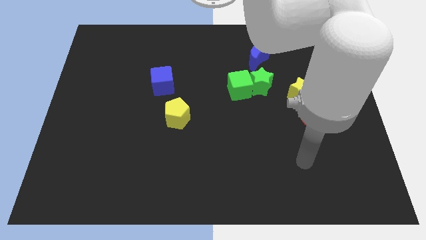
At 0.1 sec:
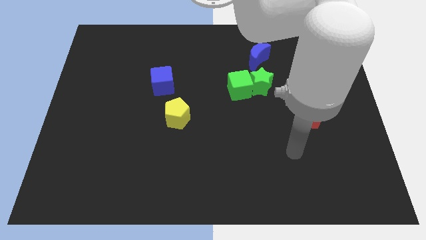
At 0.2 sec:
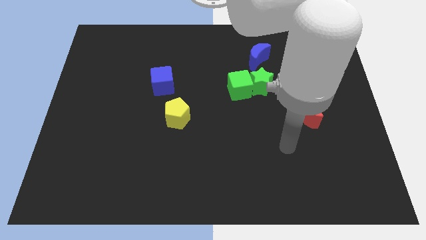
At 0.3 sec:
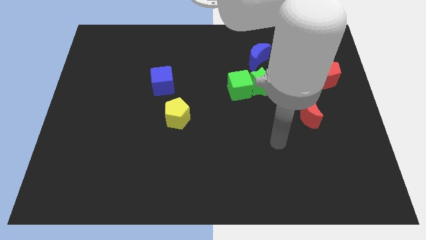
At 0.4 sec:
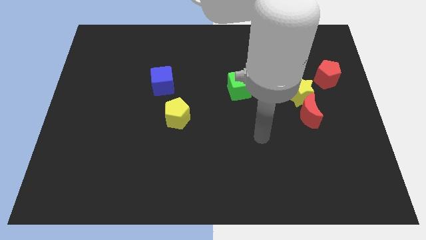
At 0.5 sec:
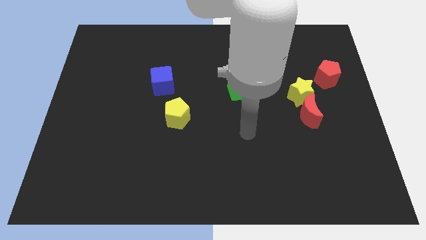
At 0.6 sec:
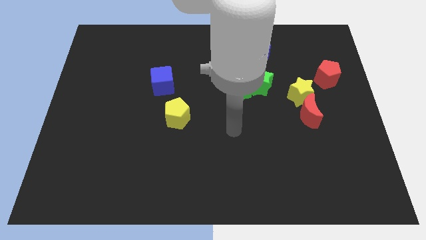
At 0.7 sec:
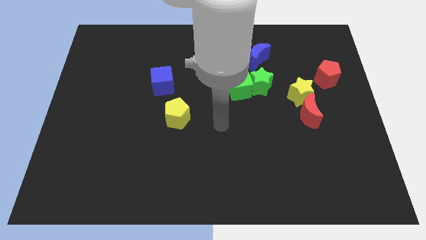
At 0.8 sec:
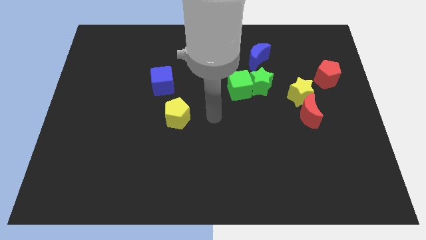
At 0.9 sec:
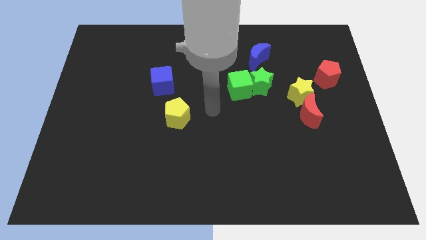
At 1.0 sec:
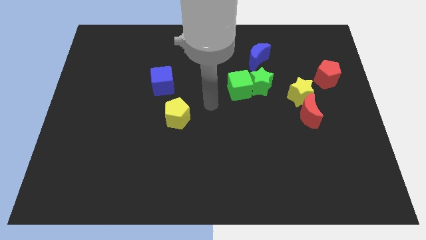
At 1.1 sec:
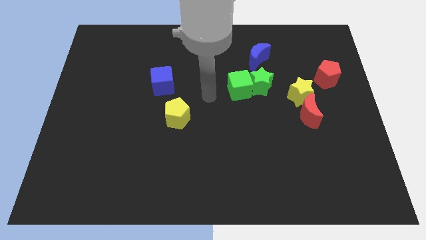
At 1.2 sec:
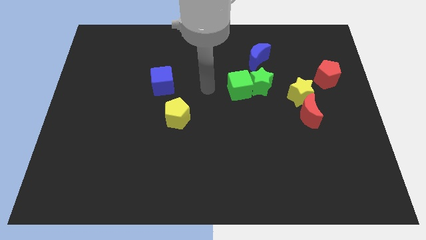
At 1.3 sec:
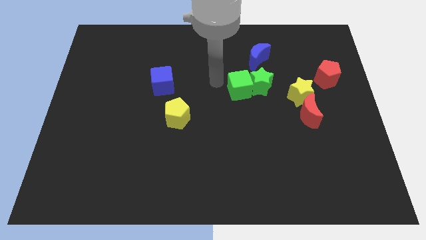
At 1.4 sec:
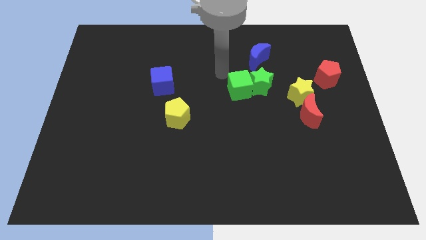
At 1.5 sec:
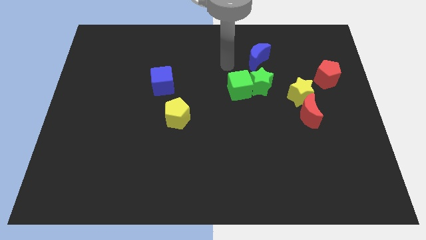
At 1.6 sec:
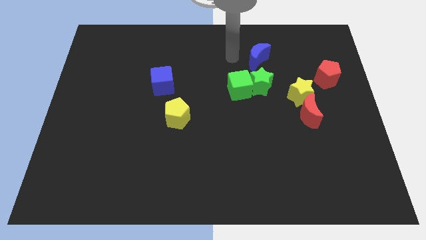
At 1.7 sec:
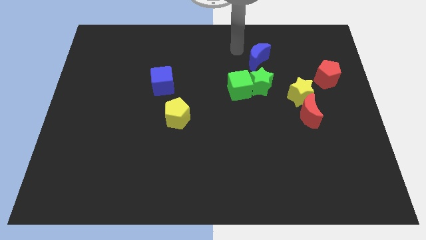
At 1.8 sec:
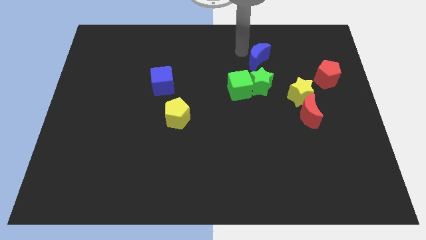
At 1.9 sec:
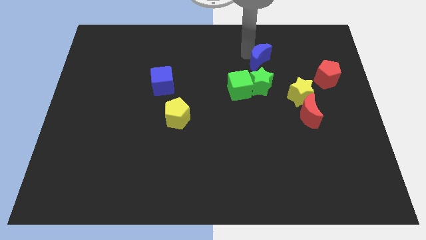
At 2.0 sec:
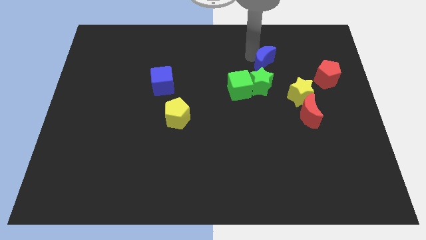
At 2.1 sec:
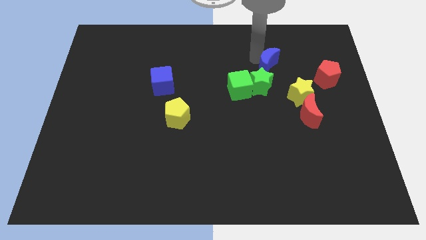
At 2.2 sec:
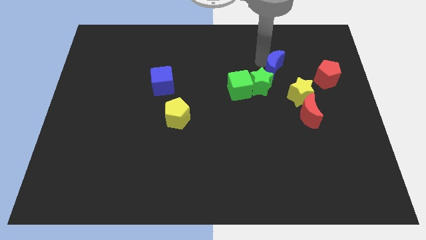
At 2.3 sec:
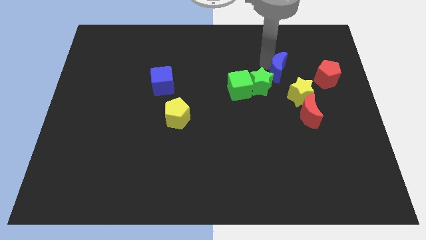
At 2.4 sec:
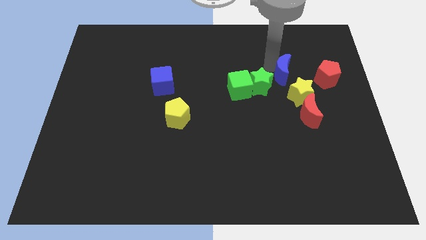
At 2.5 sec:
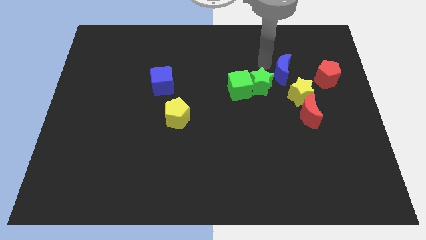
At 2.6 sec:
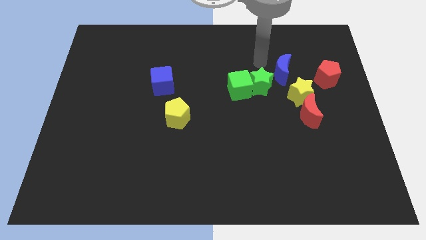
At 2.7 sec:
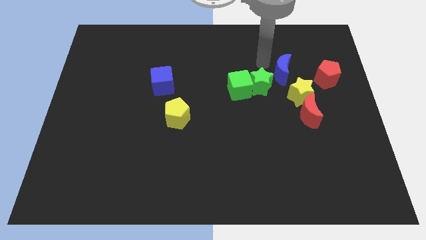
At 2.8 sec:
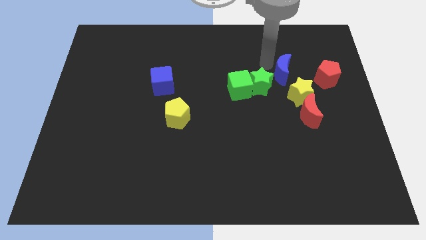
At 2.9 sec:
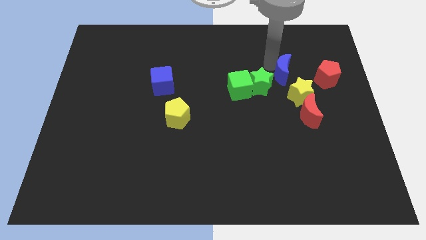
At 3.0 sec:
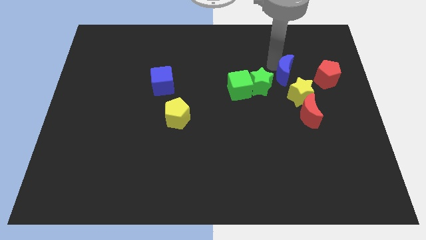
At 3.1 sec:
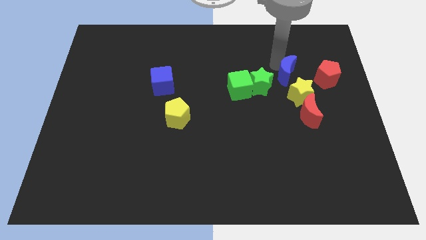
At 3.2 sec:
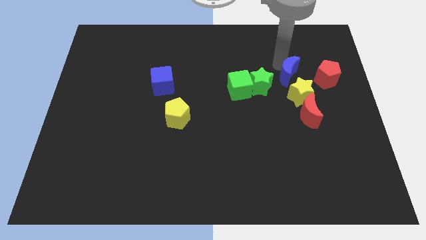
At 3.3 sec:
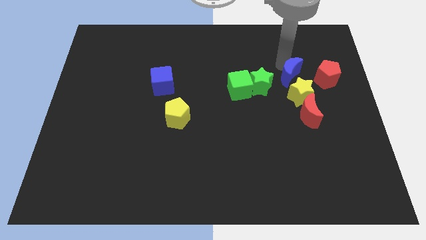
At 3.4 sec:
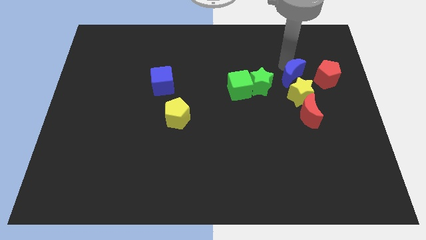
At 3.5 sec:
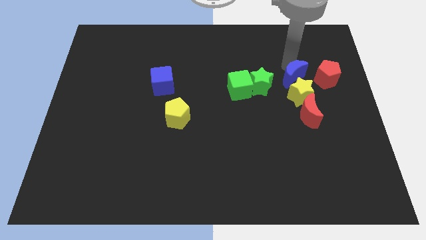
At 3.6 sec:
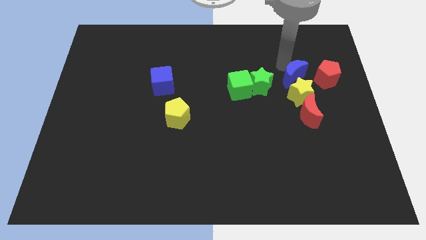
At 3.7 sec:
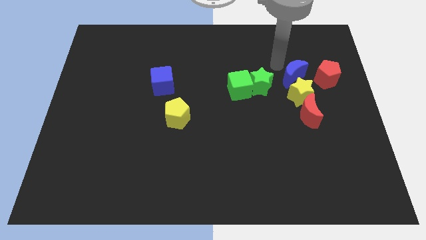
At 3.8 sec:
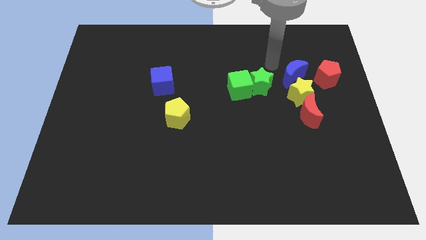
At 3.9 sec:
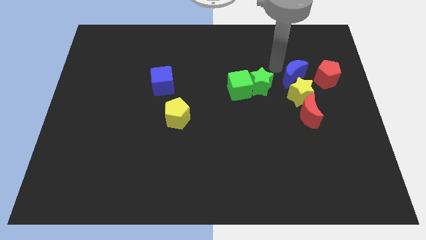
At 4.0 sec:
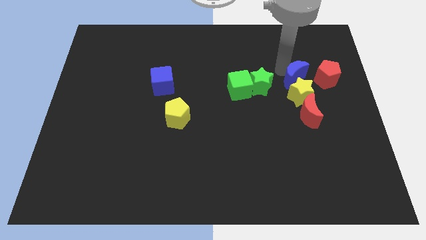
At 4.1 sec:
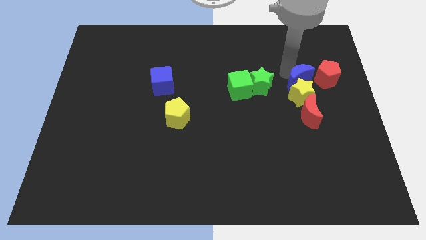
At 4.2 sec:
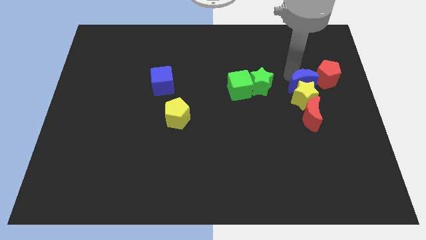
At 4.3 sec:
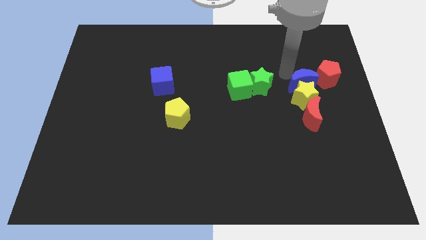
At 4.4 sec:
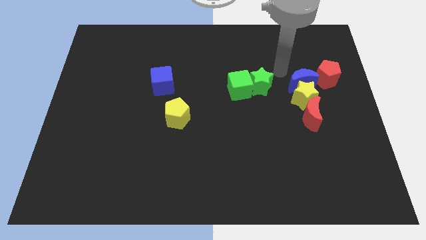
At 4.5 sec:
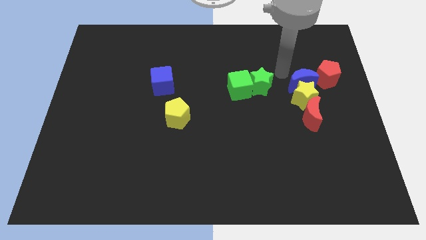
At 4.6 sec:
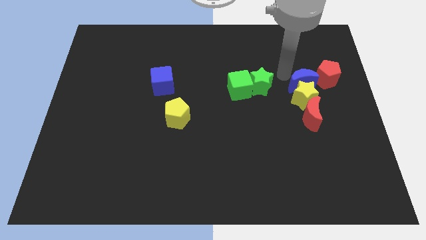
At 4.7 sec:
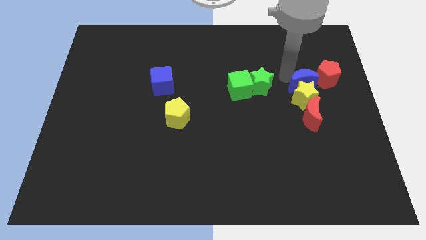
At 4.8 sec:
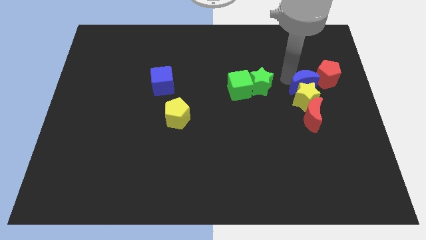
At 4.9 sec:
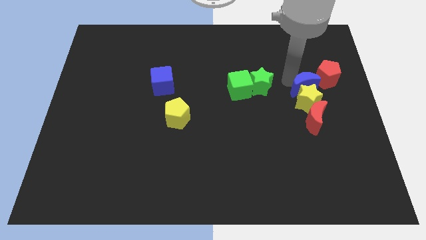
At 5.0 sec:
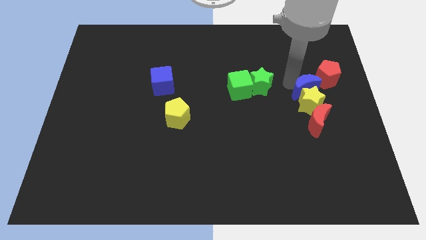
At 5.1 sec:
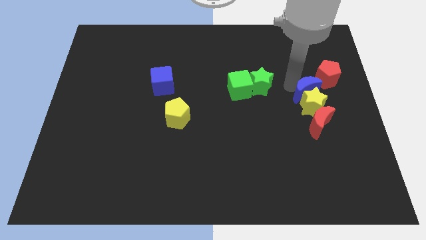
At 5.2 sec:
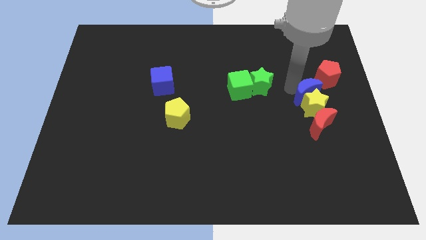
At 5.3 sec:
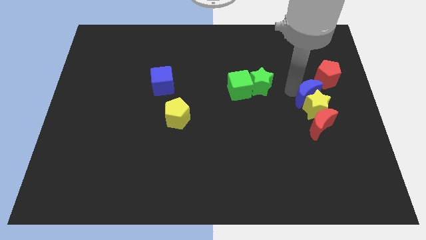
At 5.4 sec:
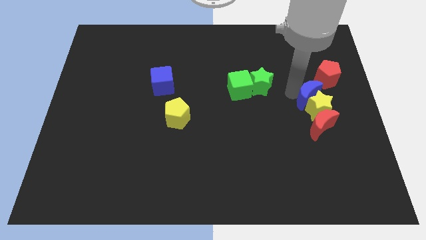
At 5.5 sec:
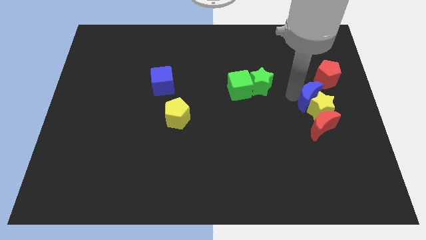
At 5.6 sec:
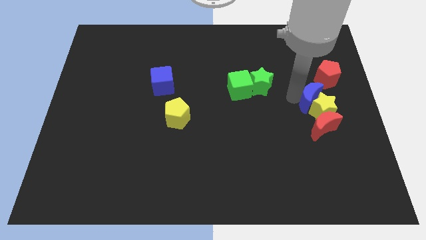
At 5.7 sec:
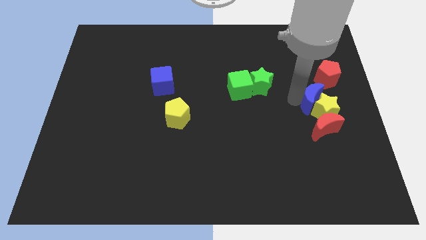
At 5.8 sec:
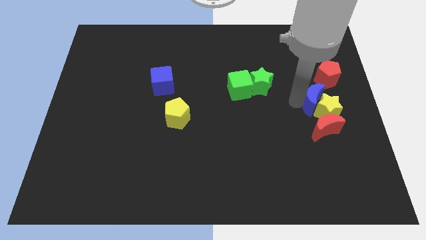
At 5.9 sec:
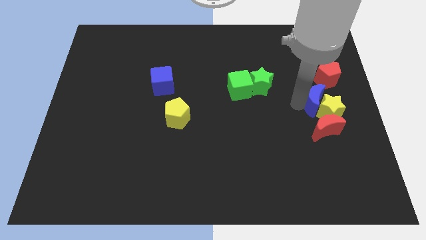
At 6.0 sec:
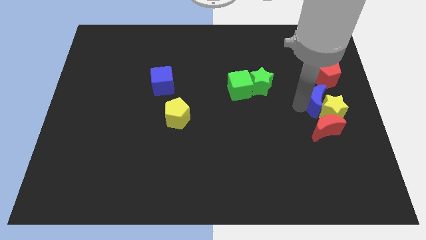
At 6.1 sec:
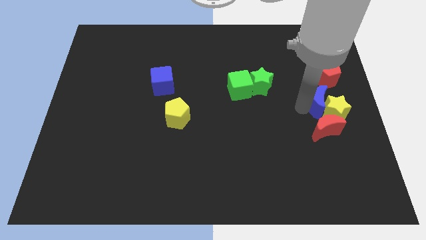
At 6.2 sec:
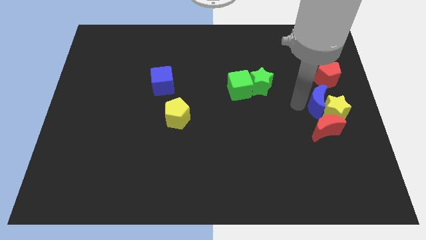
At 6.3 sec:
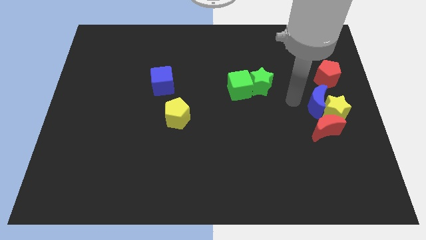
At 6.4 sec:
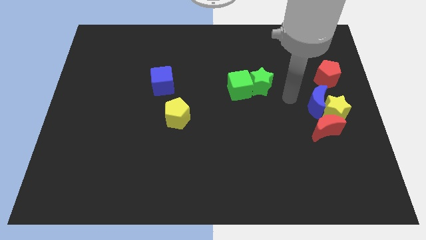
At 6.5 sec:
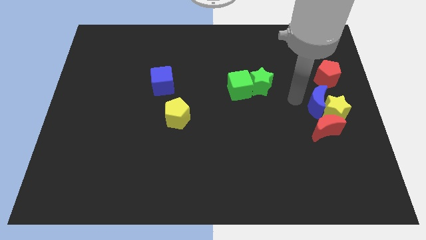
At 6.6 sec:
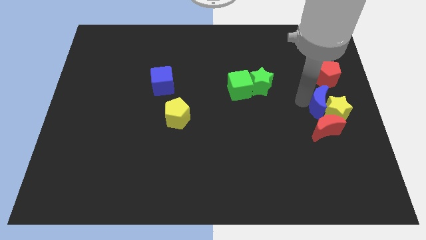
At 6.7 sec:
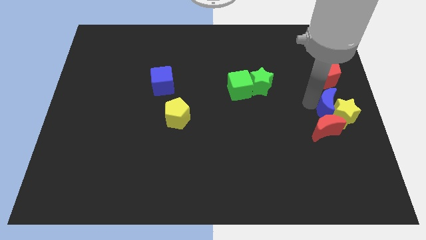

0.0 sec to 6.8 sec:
push the blue moon to the top right side of the red moon

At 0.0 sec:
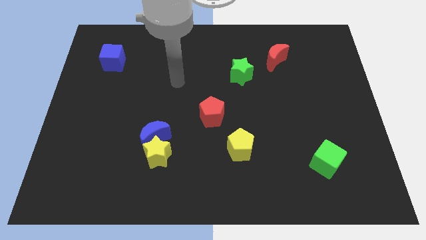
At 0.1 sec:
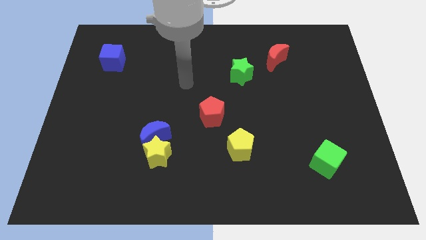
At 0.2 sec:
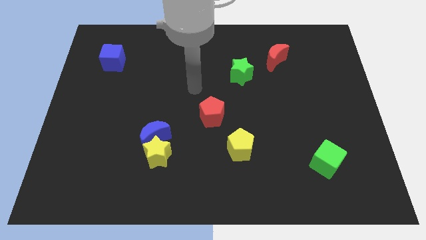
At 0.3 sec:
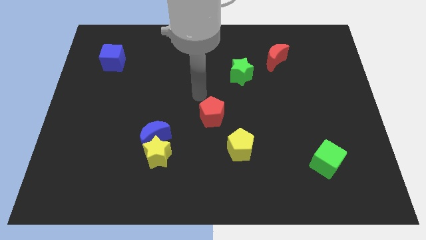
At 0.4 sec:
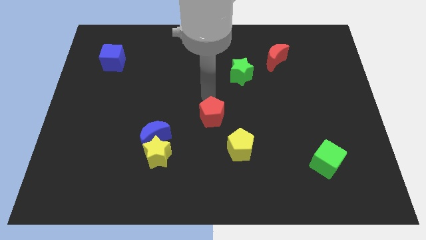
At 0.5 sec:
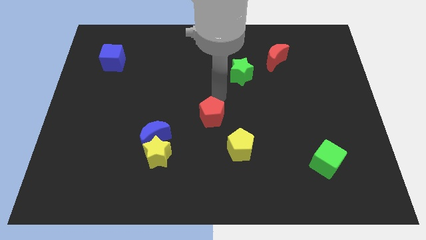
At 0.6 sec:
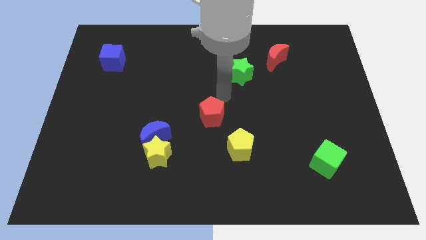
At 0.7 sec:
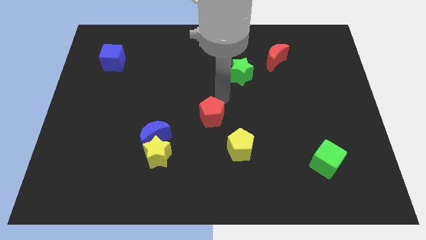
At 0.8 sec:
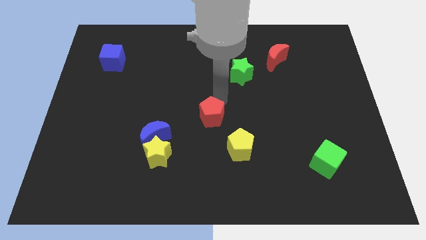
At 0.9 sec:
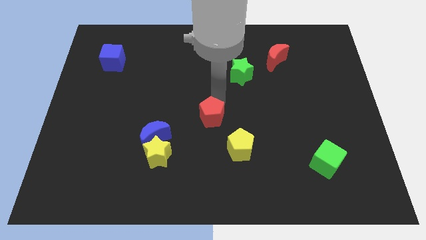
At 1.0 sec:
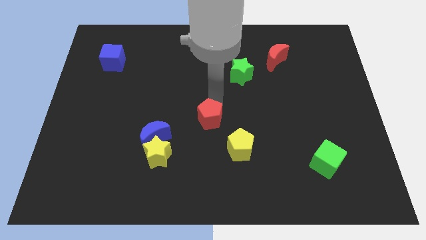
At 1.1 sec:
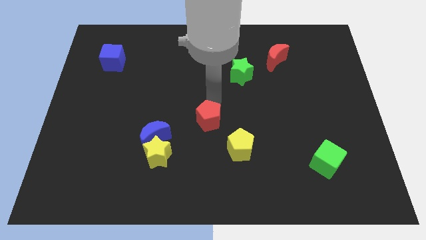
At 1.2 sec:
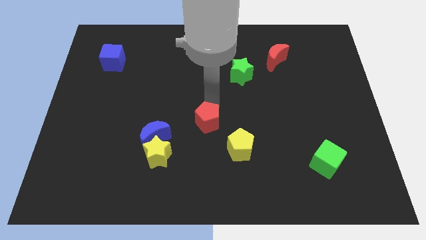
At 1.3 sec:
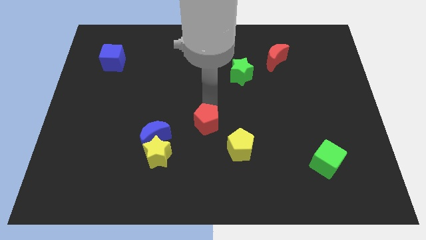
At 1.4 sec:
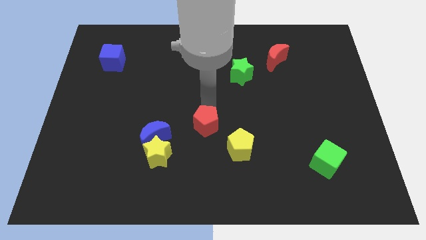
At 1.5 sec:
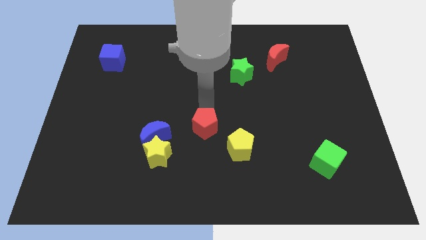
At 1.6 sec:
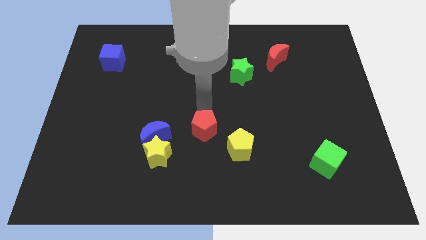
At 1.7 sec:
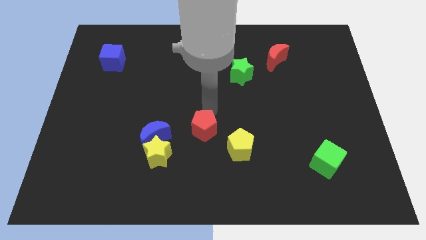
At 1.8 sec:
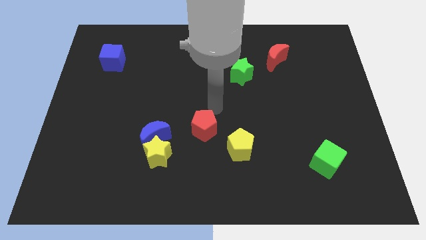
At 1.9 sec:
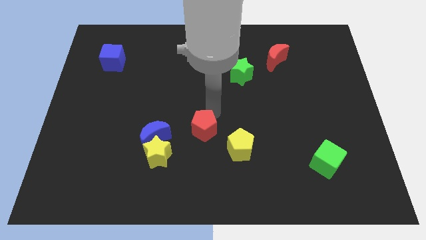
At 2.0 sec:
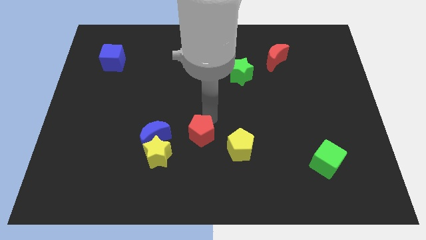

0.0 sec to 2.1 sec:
push the red pentagon left of the yellow pentagon
